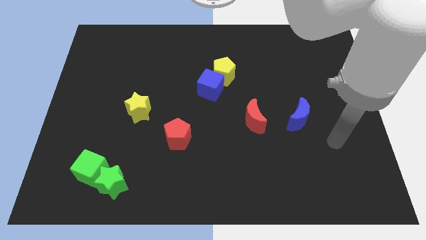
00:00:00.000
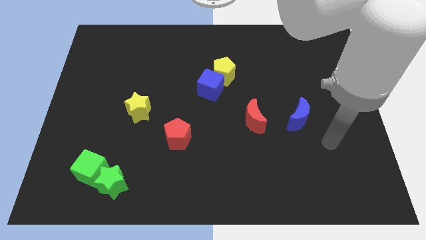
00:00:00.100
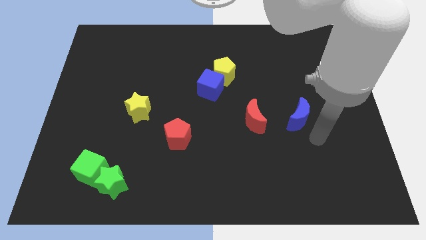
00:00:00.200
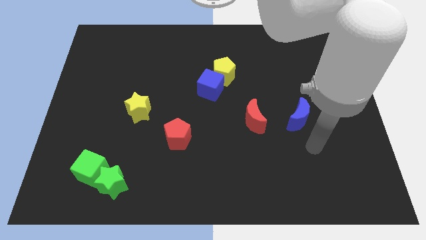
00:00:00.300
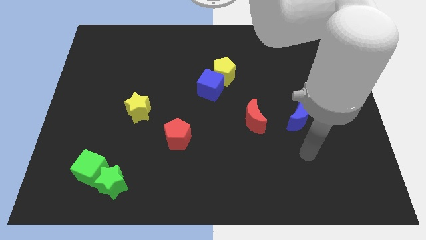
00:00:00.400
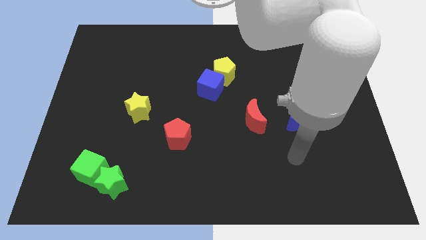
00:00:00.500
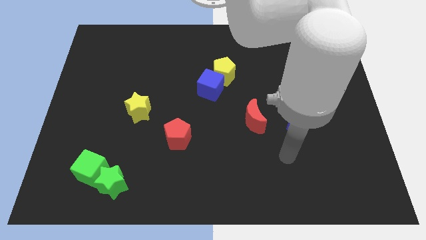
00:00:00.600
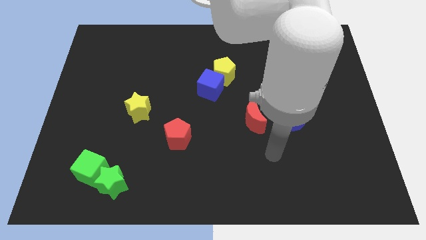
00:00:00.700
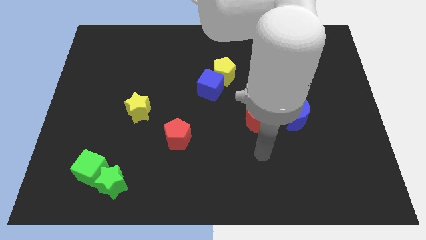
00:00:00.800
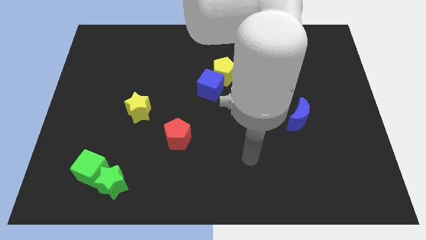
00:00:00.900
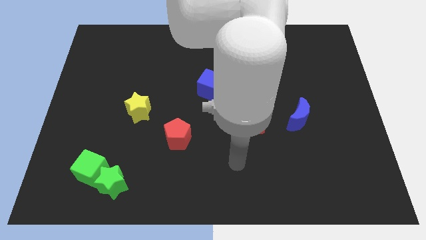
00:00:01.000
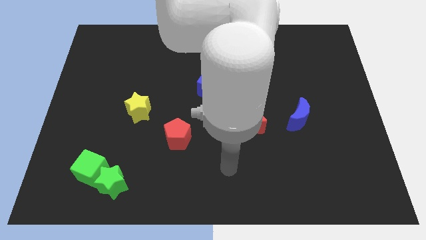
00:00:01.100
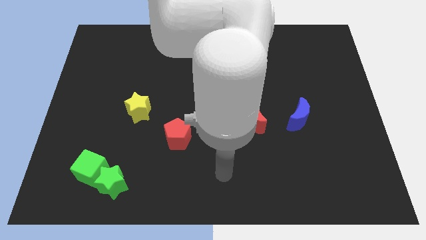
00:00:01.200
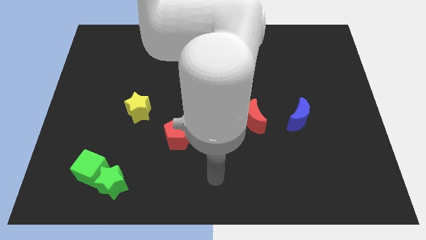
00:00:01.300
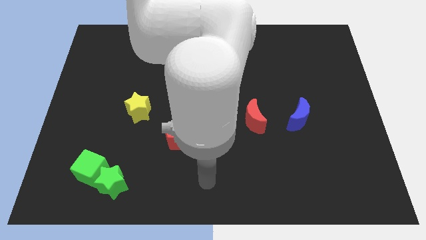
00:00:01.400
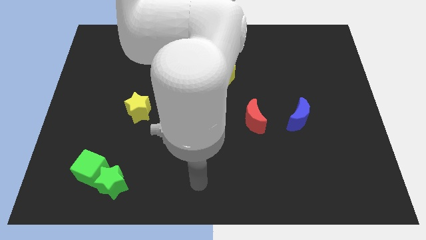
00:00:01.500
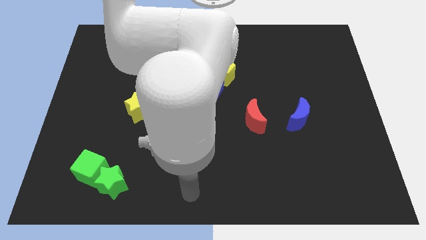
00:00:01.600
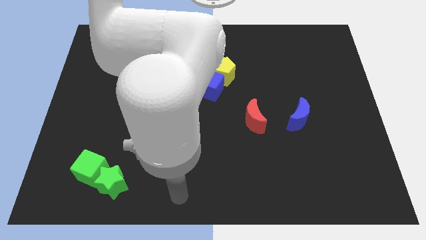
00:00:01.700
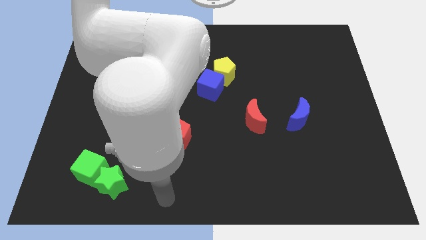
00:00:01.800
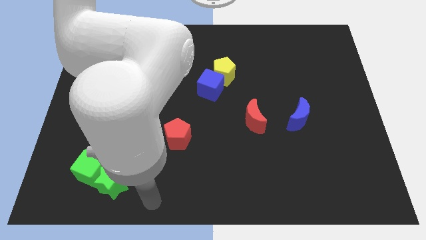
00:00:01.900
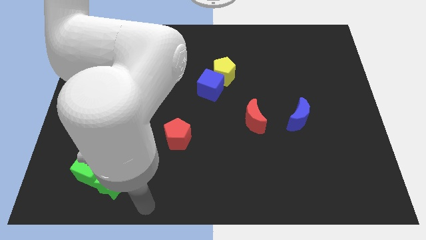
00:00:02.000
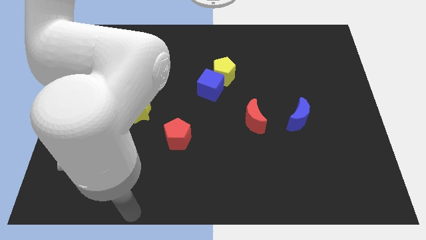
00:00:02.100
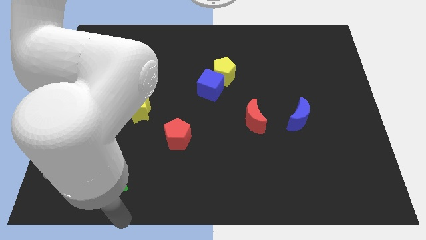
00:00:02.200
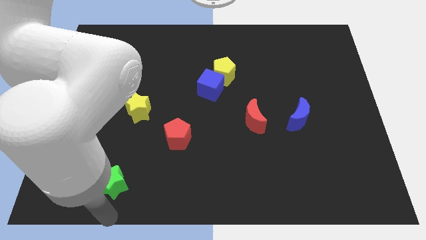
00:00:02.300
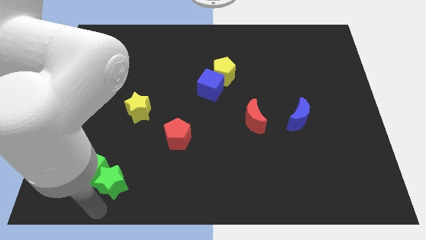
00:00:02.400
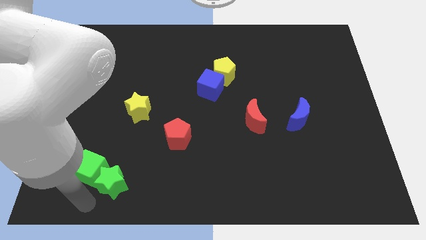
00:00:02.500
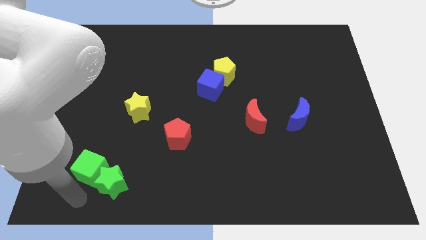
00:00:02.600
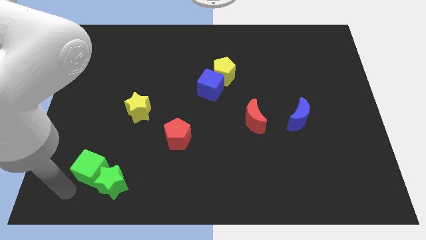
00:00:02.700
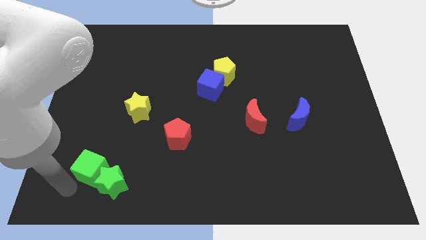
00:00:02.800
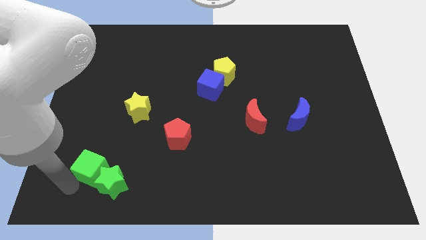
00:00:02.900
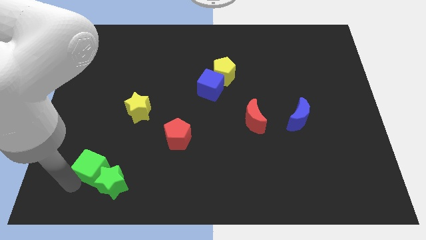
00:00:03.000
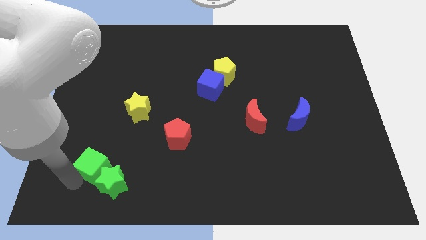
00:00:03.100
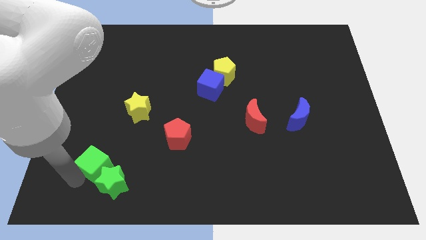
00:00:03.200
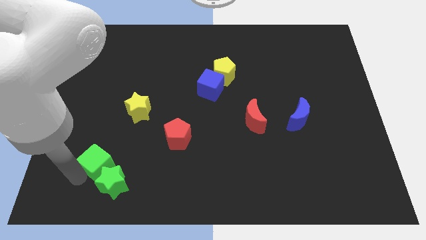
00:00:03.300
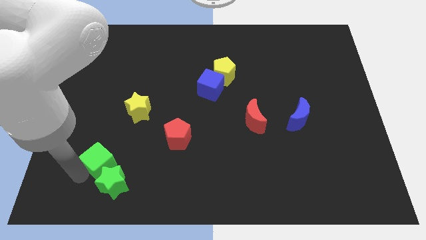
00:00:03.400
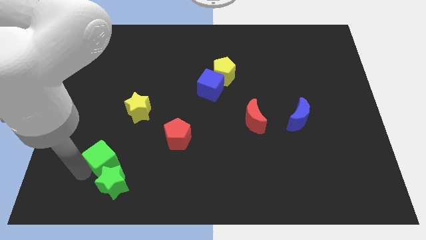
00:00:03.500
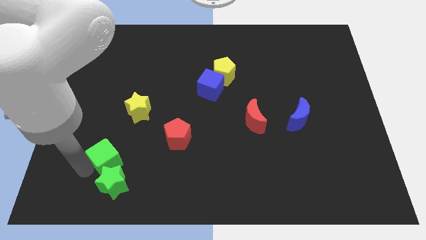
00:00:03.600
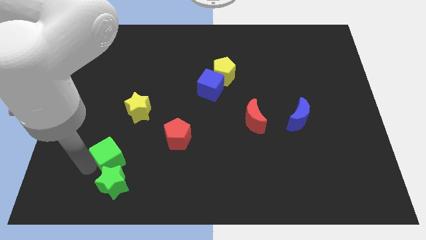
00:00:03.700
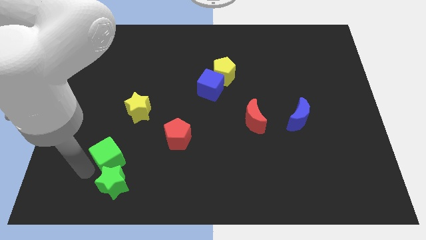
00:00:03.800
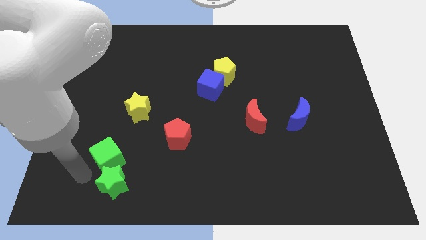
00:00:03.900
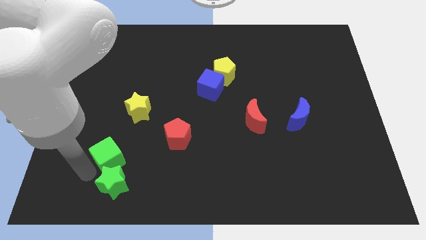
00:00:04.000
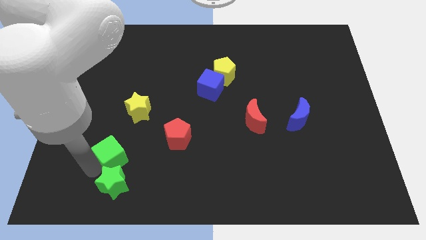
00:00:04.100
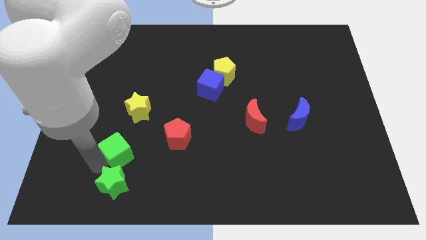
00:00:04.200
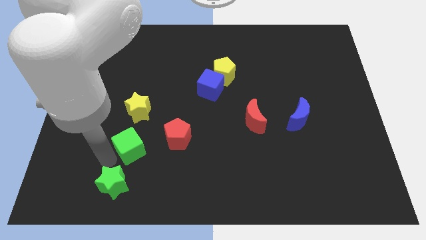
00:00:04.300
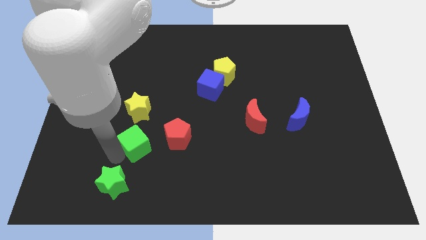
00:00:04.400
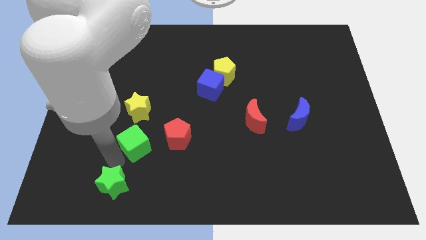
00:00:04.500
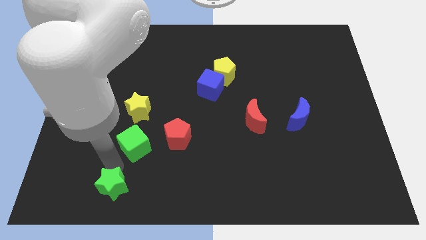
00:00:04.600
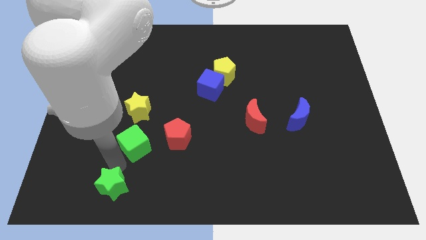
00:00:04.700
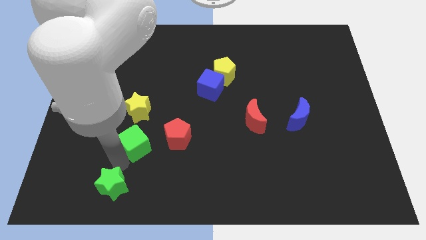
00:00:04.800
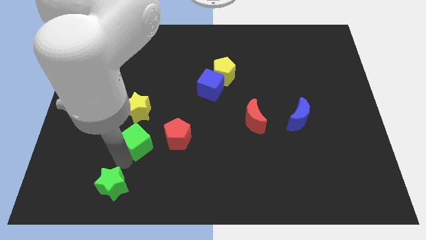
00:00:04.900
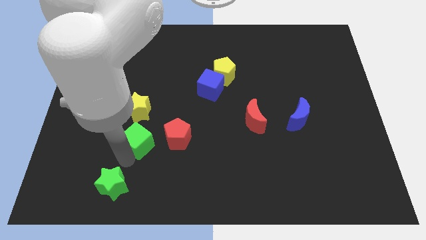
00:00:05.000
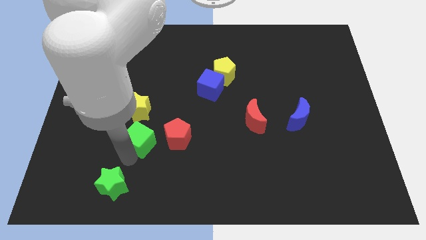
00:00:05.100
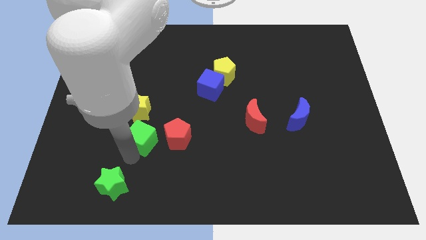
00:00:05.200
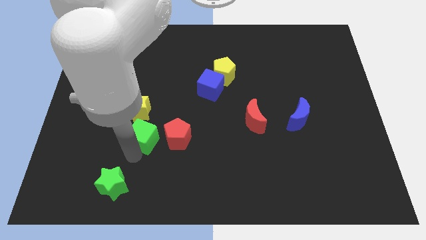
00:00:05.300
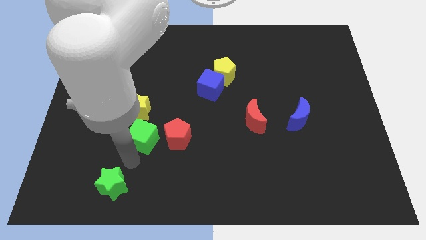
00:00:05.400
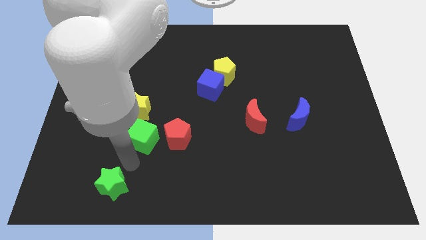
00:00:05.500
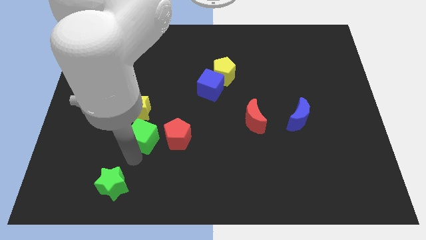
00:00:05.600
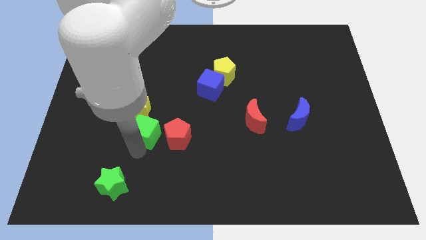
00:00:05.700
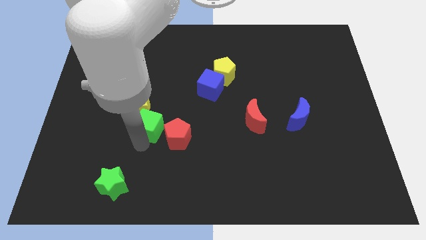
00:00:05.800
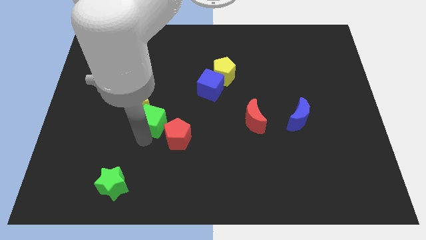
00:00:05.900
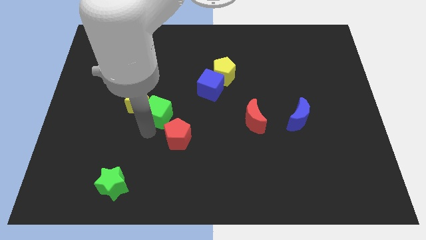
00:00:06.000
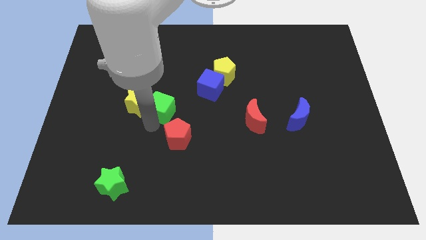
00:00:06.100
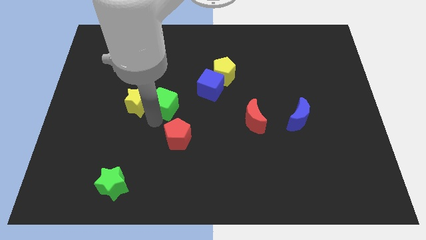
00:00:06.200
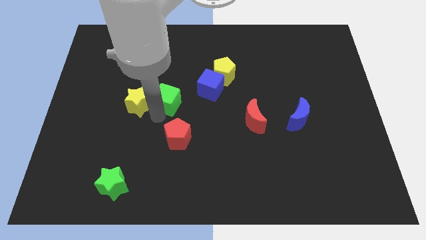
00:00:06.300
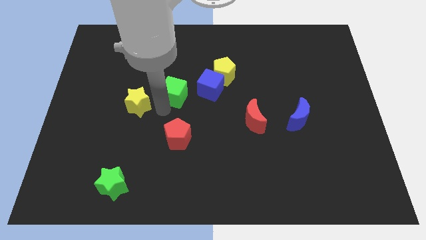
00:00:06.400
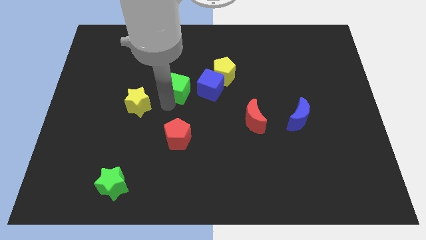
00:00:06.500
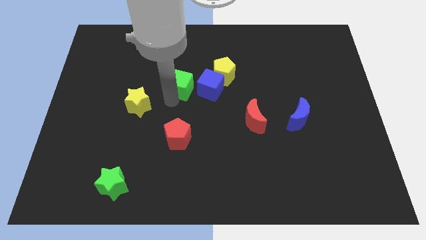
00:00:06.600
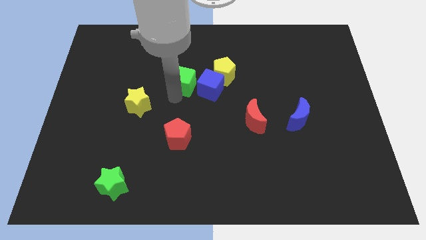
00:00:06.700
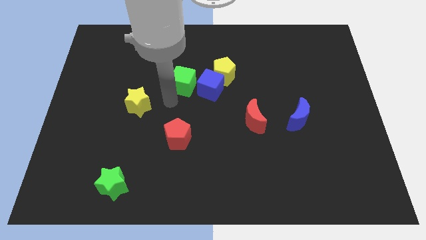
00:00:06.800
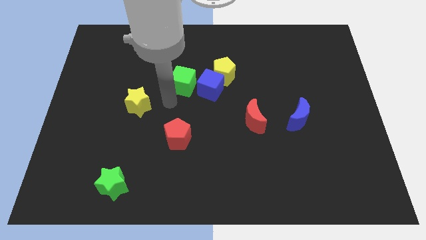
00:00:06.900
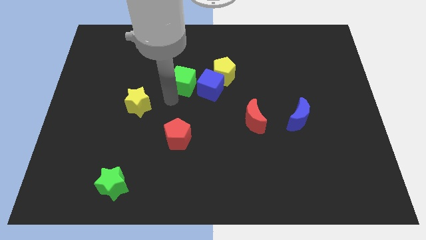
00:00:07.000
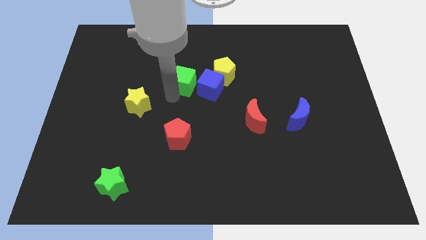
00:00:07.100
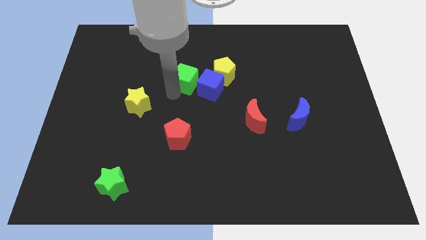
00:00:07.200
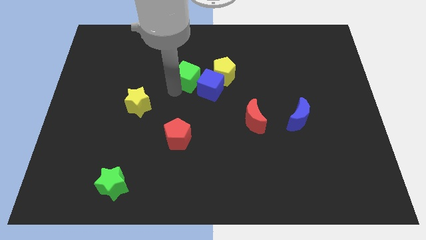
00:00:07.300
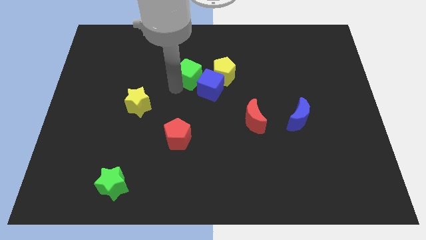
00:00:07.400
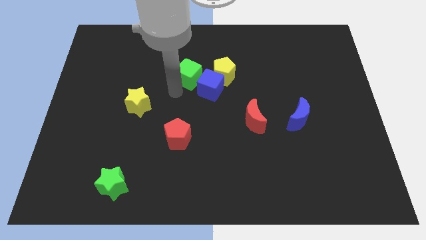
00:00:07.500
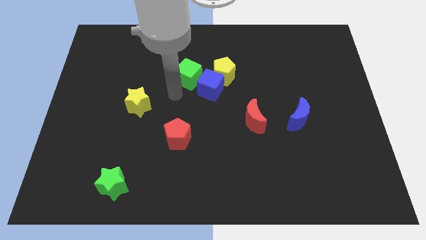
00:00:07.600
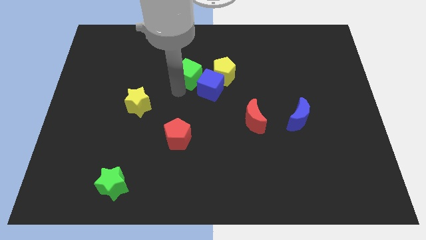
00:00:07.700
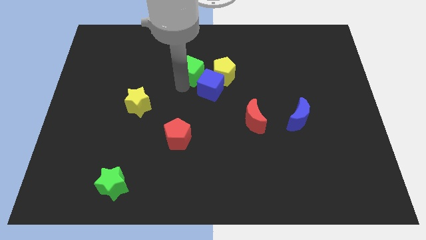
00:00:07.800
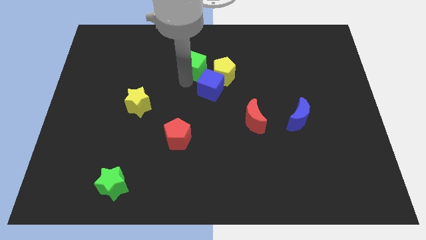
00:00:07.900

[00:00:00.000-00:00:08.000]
slide the green cube to the top left side of the yellow pentagon
